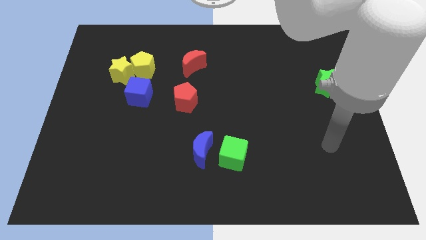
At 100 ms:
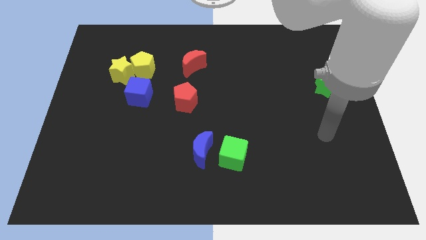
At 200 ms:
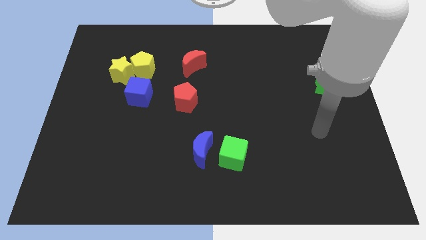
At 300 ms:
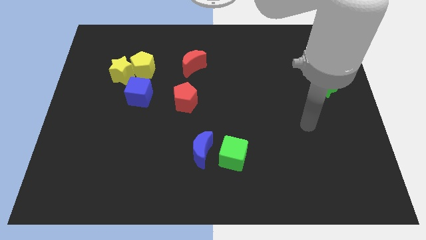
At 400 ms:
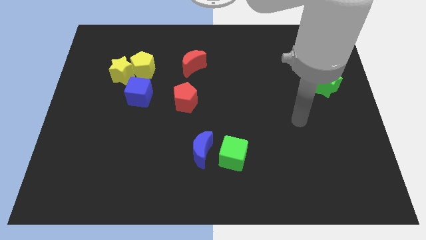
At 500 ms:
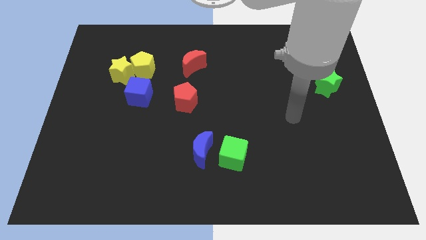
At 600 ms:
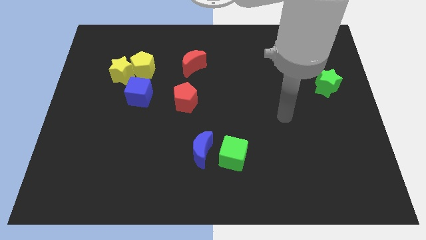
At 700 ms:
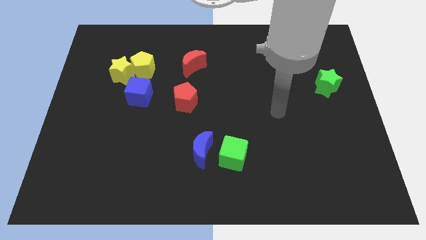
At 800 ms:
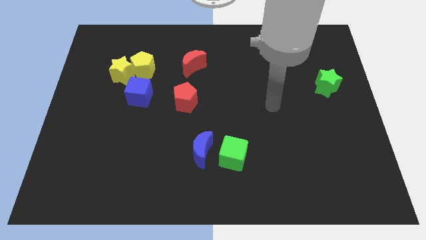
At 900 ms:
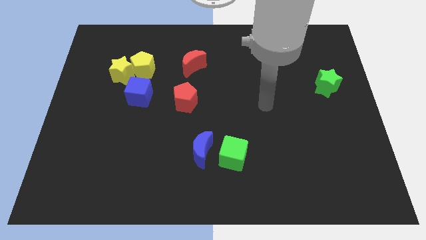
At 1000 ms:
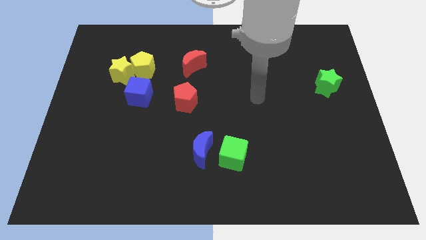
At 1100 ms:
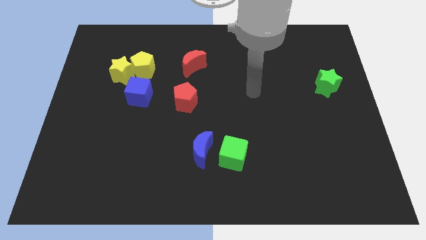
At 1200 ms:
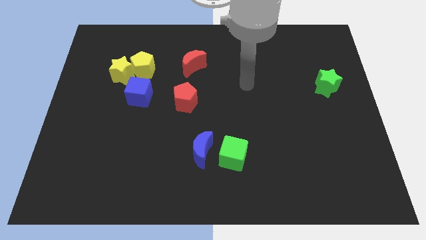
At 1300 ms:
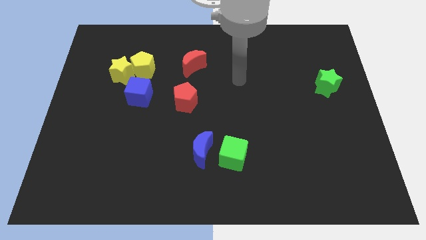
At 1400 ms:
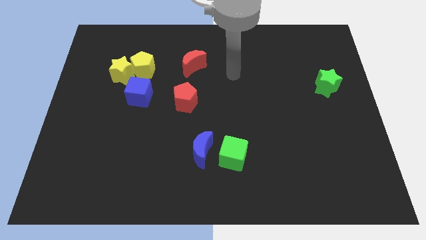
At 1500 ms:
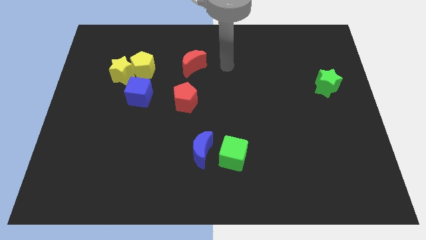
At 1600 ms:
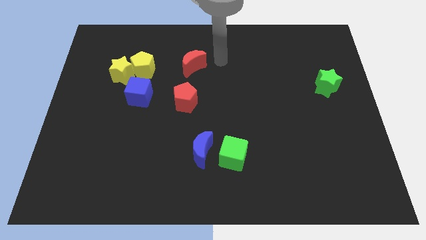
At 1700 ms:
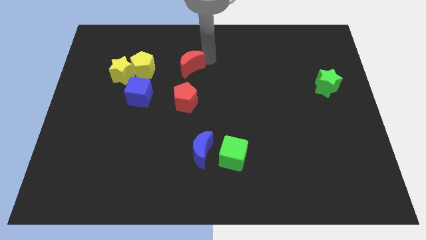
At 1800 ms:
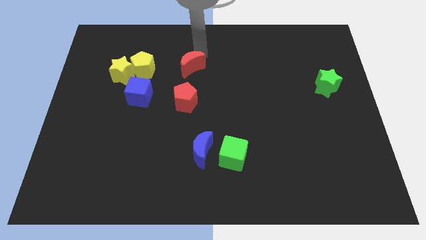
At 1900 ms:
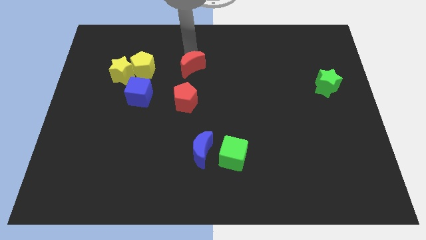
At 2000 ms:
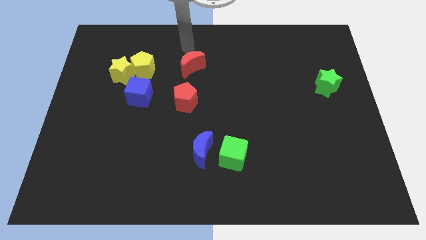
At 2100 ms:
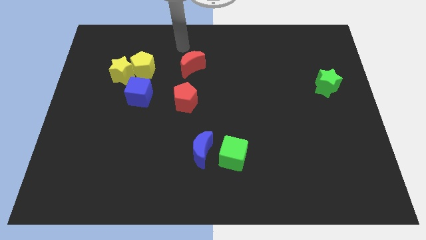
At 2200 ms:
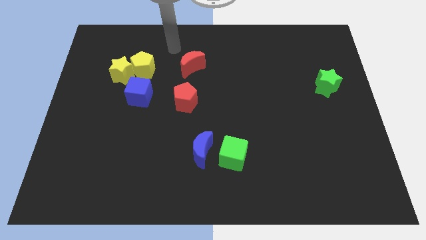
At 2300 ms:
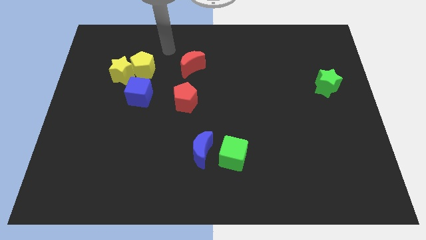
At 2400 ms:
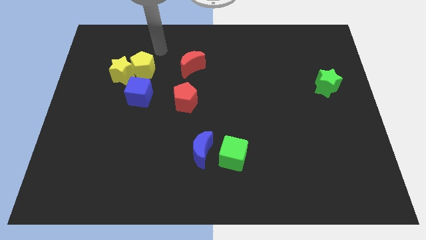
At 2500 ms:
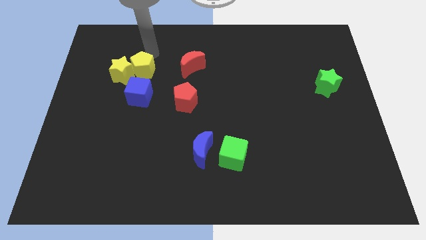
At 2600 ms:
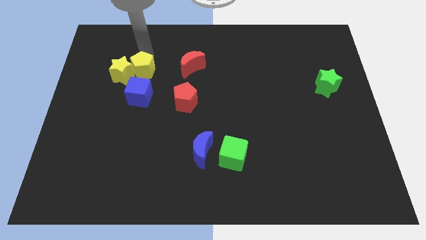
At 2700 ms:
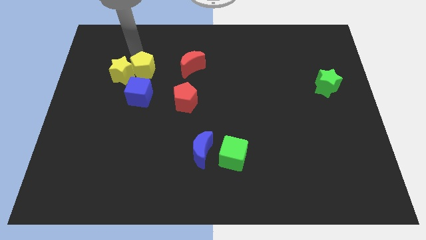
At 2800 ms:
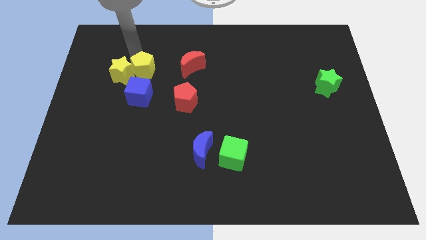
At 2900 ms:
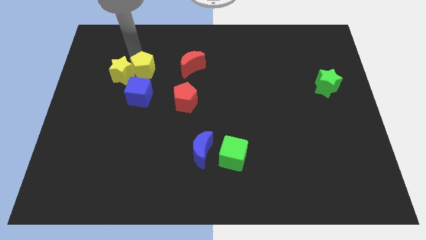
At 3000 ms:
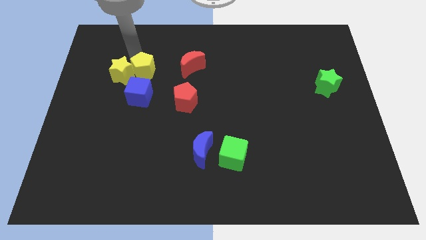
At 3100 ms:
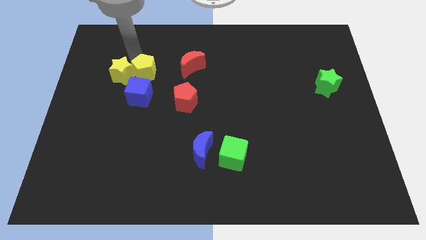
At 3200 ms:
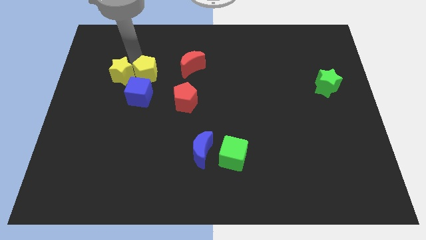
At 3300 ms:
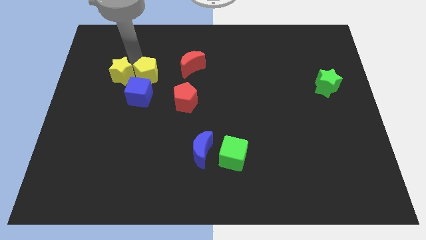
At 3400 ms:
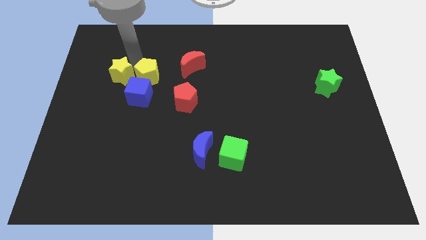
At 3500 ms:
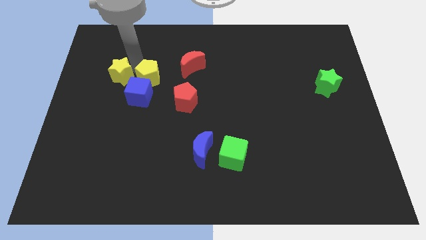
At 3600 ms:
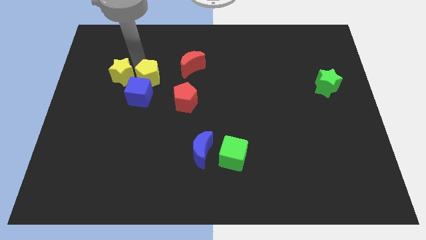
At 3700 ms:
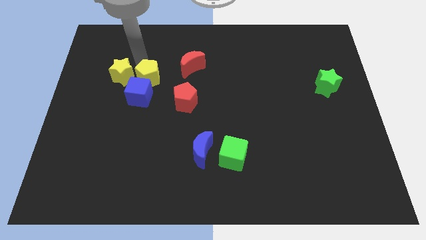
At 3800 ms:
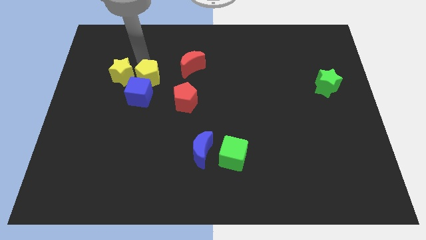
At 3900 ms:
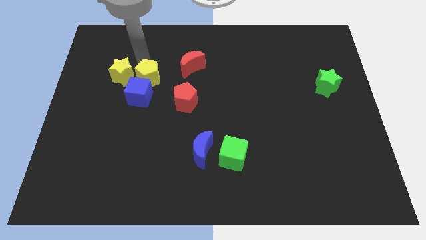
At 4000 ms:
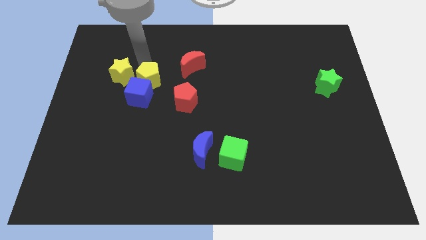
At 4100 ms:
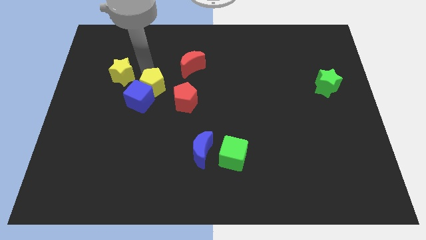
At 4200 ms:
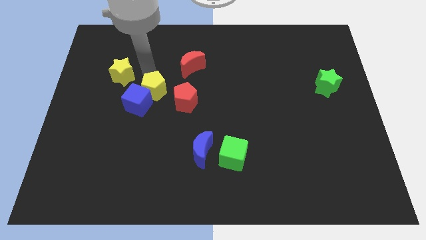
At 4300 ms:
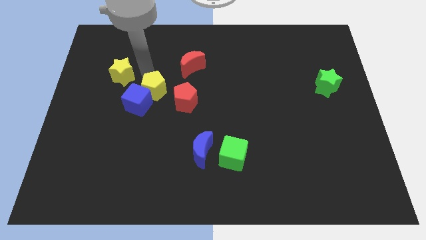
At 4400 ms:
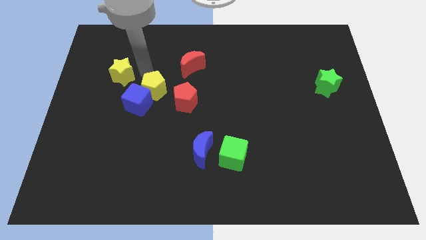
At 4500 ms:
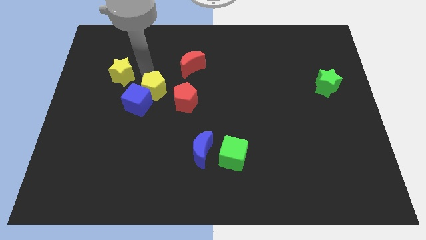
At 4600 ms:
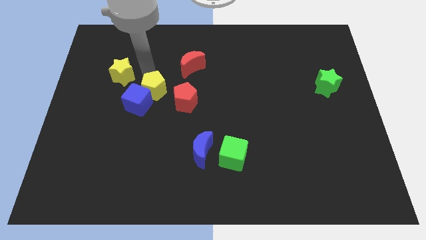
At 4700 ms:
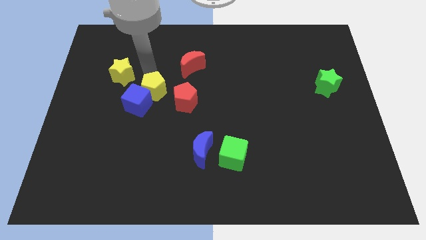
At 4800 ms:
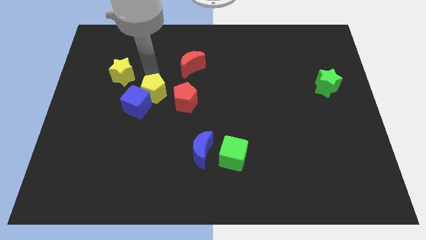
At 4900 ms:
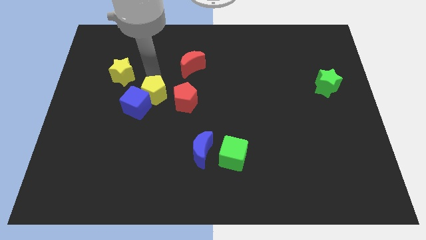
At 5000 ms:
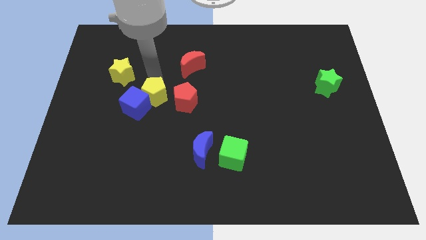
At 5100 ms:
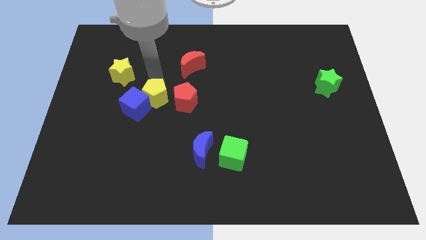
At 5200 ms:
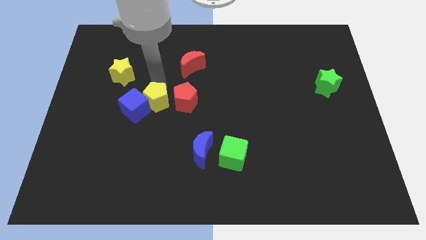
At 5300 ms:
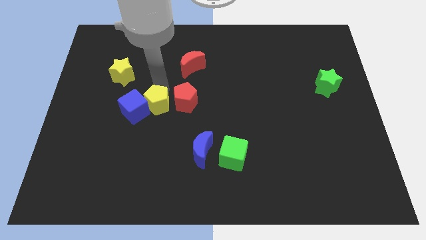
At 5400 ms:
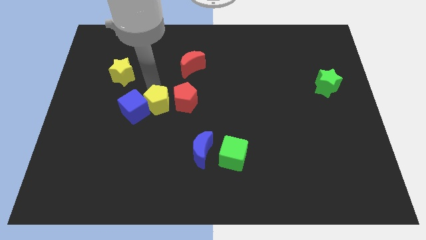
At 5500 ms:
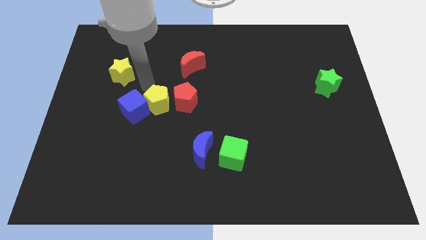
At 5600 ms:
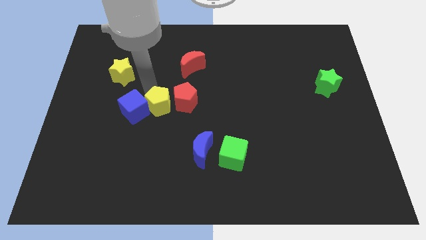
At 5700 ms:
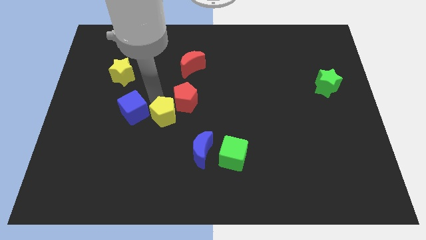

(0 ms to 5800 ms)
move the yellow pentagon to the bottom side of the red pentagon

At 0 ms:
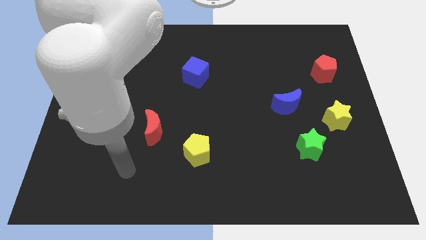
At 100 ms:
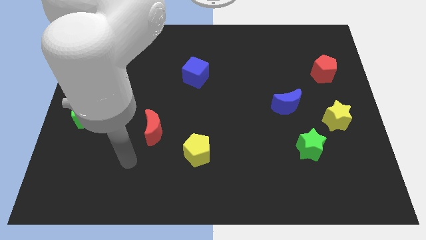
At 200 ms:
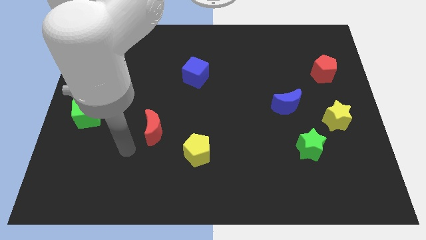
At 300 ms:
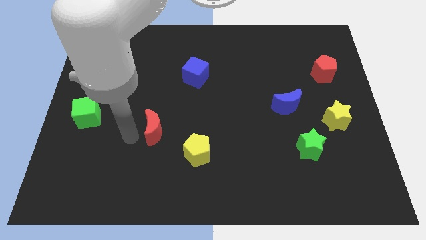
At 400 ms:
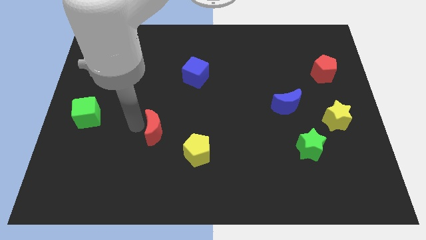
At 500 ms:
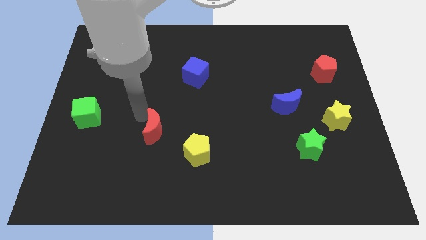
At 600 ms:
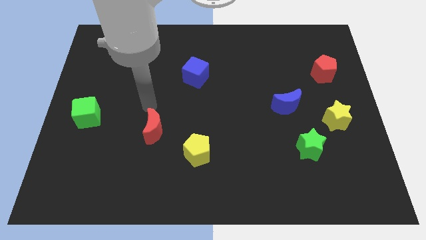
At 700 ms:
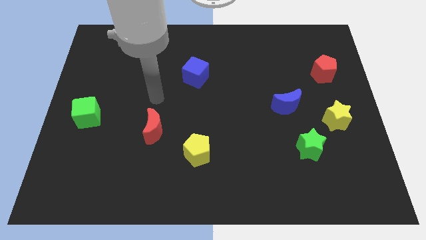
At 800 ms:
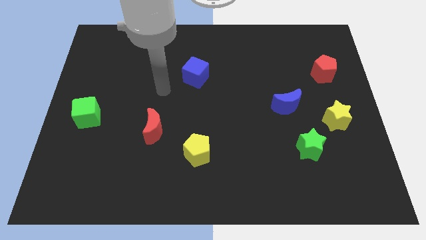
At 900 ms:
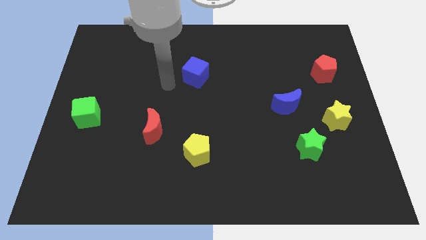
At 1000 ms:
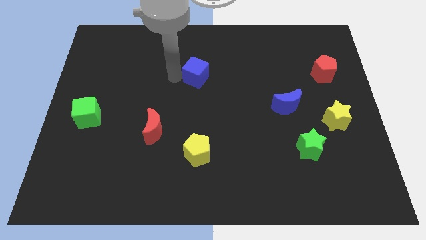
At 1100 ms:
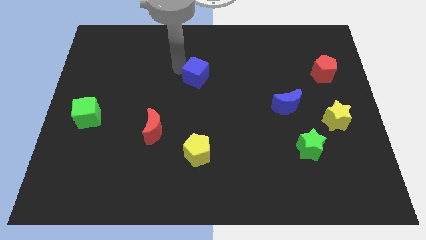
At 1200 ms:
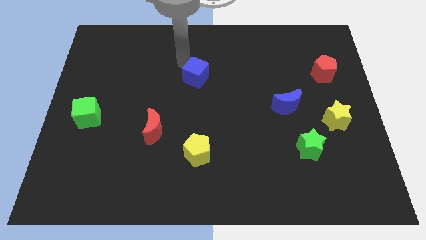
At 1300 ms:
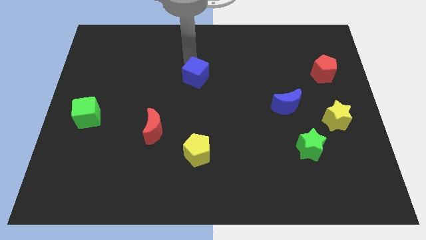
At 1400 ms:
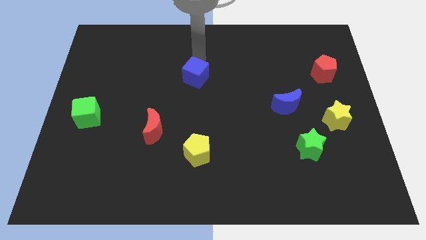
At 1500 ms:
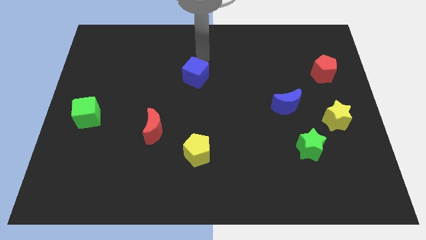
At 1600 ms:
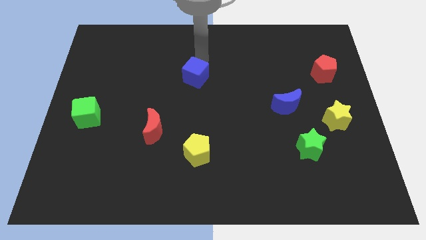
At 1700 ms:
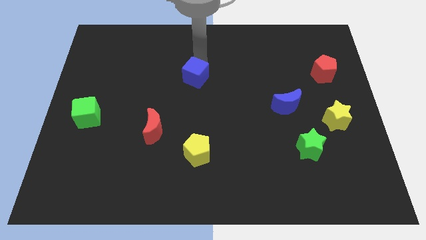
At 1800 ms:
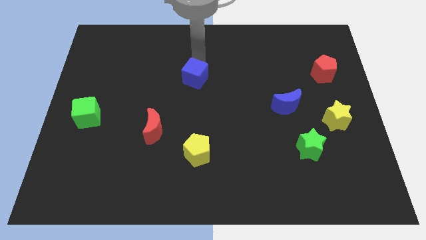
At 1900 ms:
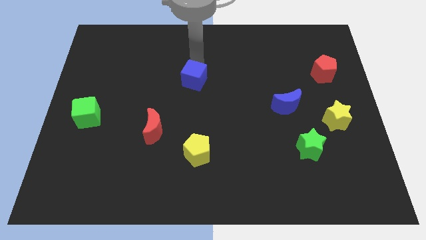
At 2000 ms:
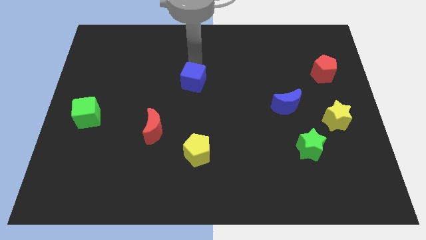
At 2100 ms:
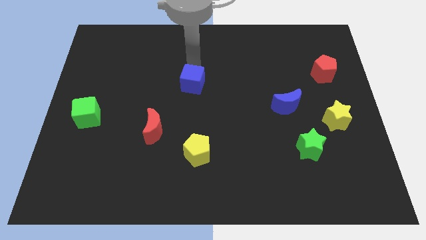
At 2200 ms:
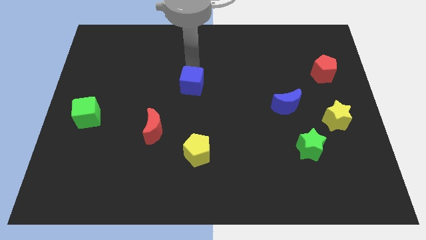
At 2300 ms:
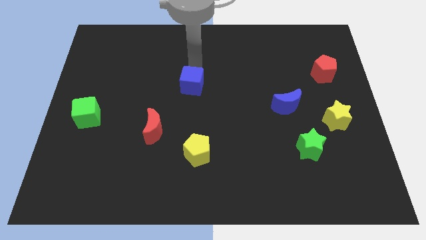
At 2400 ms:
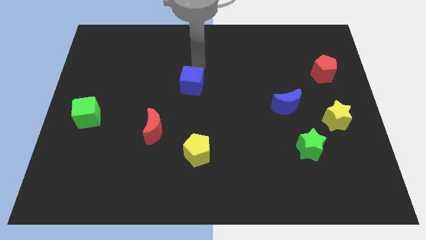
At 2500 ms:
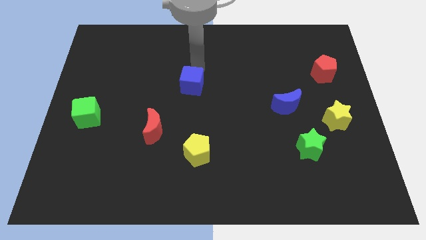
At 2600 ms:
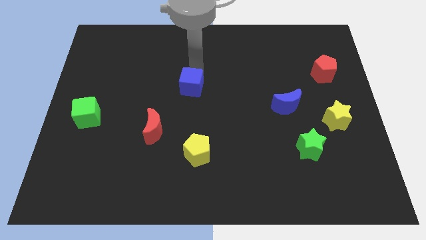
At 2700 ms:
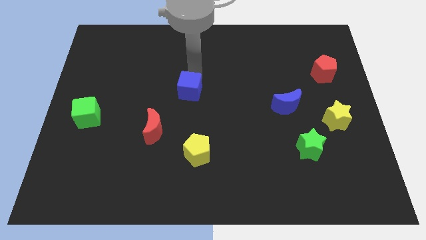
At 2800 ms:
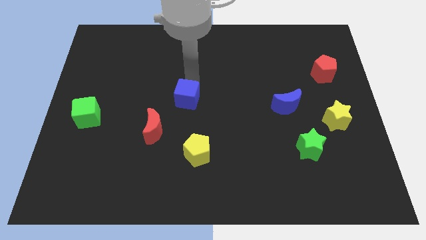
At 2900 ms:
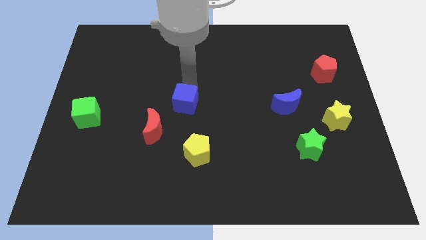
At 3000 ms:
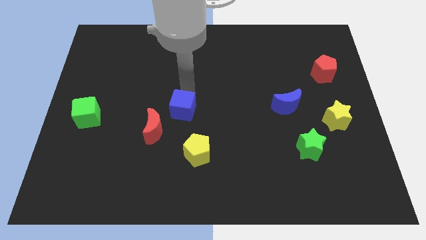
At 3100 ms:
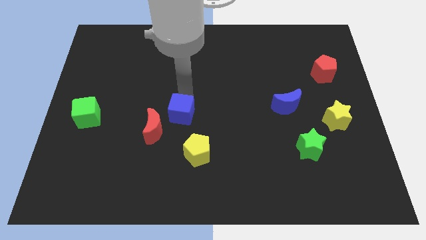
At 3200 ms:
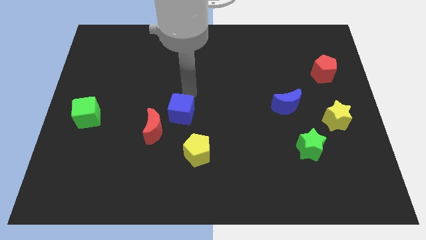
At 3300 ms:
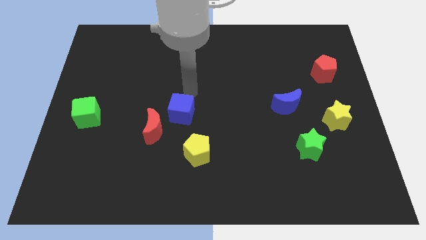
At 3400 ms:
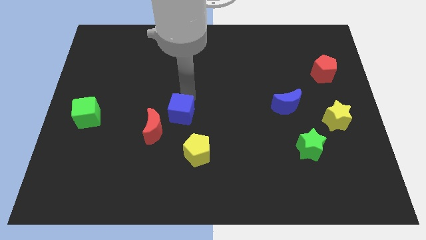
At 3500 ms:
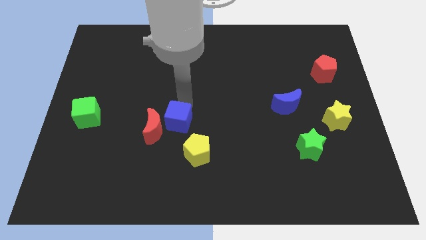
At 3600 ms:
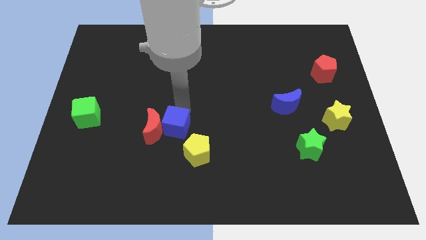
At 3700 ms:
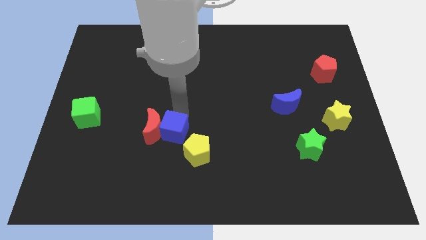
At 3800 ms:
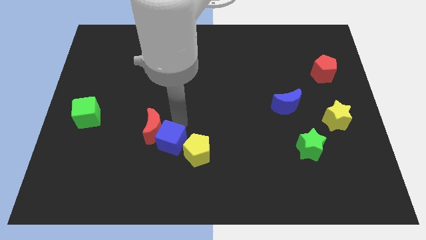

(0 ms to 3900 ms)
push the blue cube to the left side of the yellow pentagon
